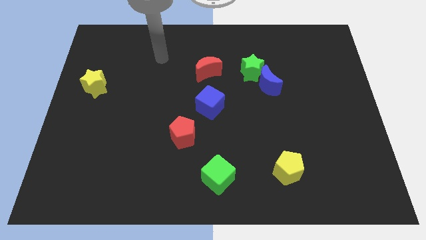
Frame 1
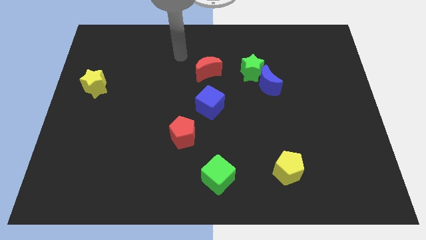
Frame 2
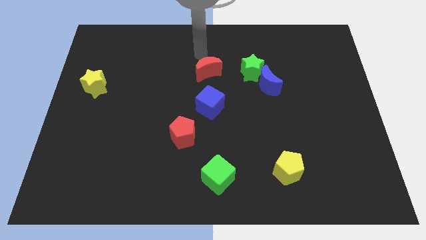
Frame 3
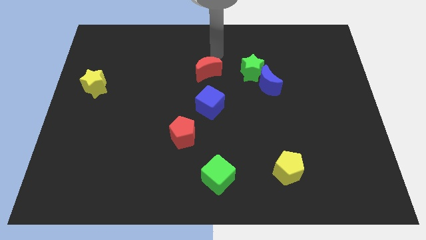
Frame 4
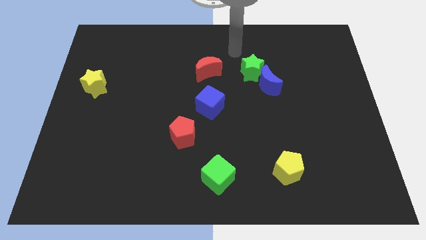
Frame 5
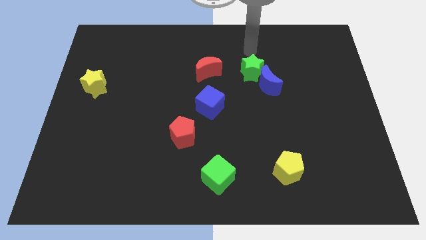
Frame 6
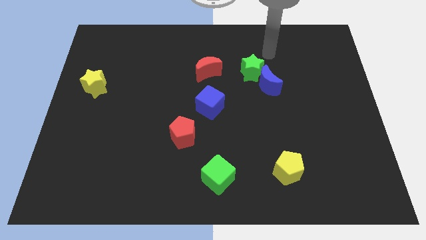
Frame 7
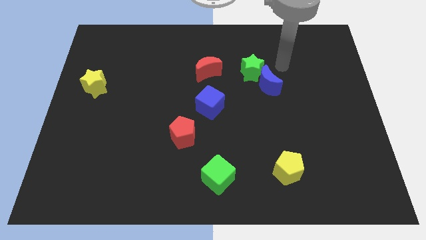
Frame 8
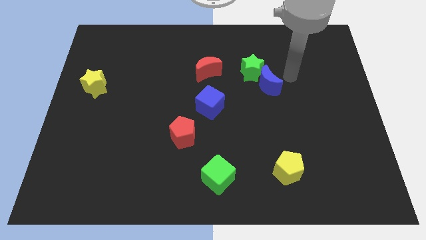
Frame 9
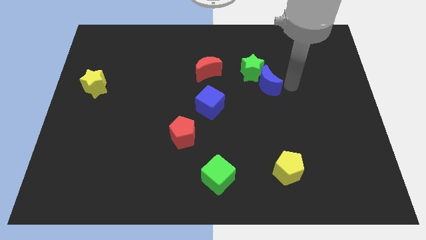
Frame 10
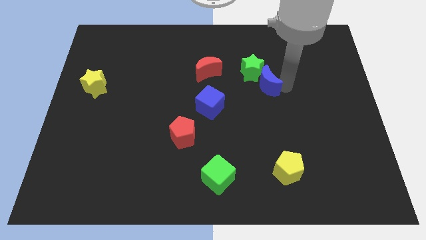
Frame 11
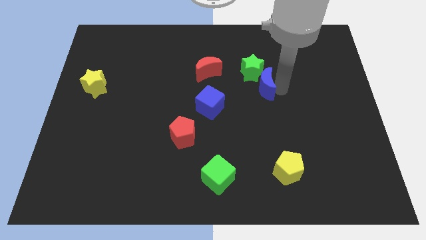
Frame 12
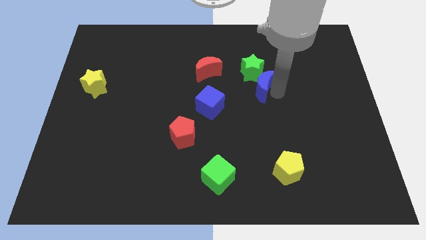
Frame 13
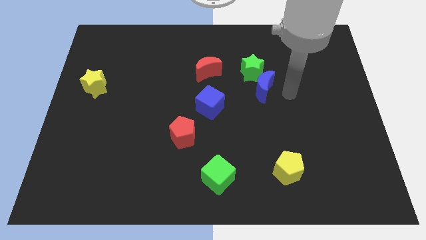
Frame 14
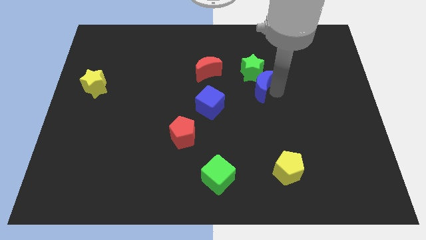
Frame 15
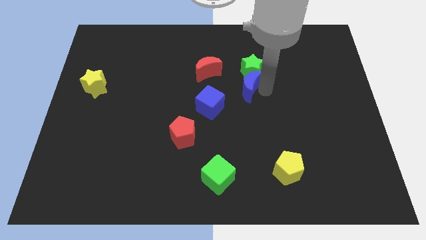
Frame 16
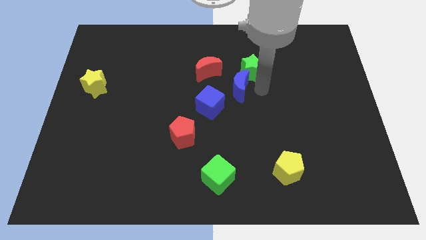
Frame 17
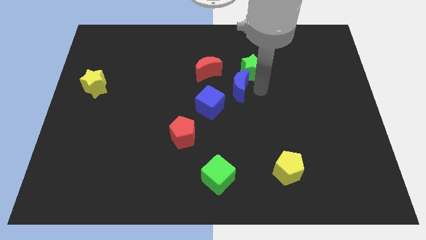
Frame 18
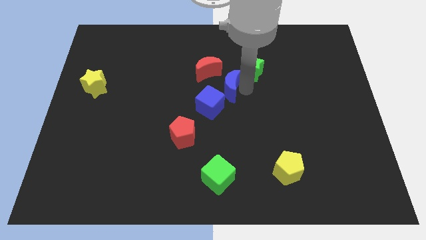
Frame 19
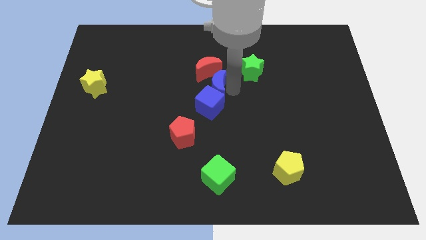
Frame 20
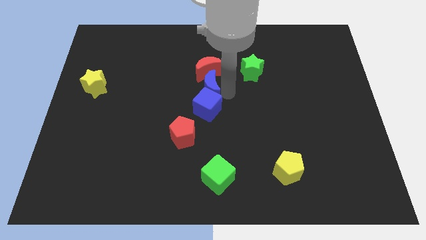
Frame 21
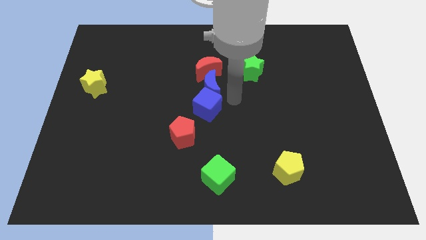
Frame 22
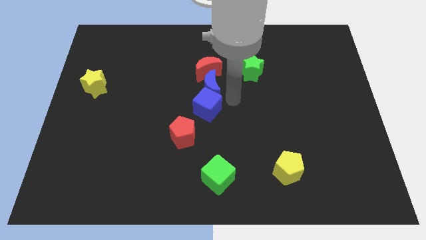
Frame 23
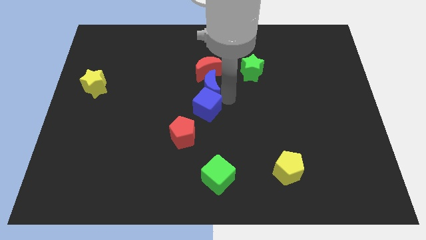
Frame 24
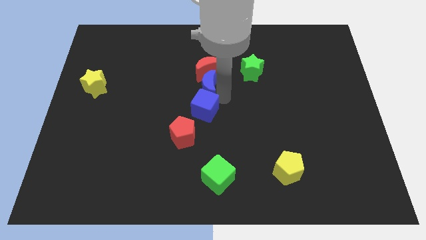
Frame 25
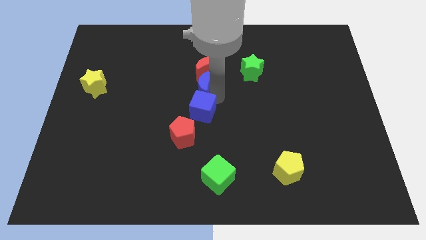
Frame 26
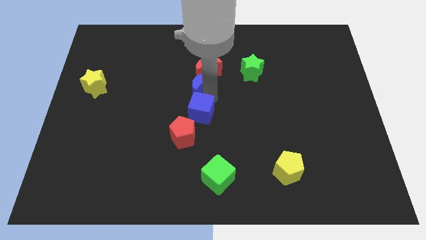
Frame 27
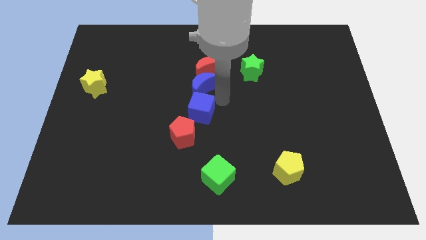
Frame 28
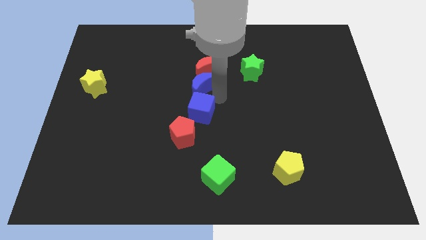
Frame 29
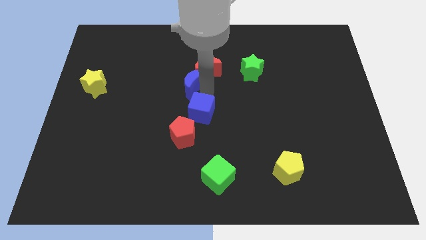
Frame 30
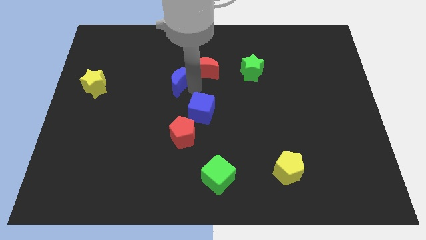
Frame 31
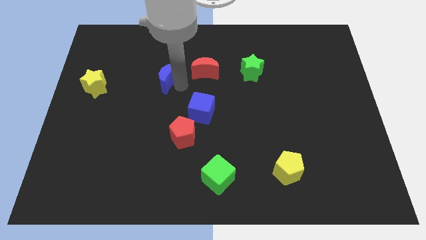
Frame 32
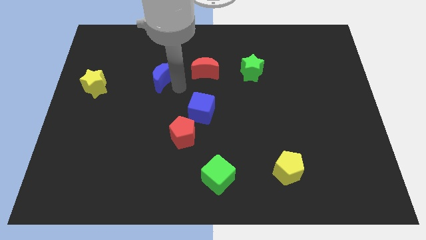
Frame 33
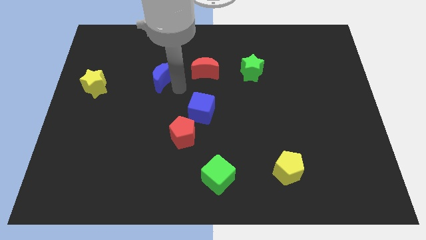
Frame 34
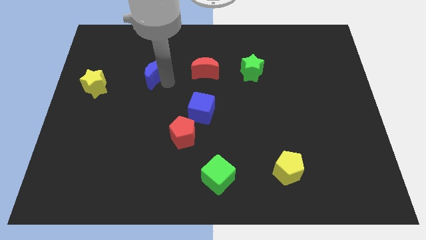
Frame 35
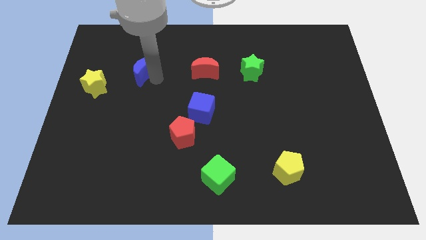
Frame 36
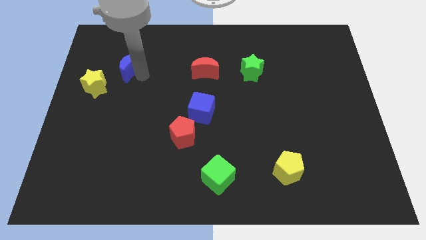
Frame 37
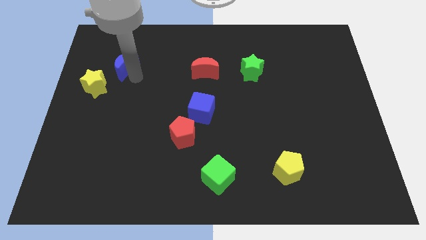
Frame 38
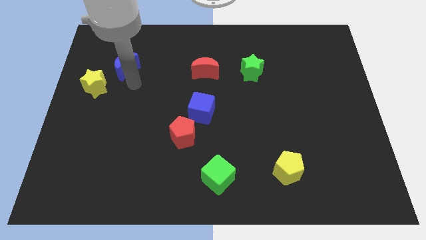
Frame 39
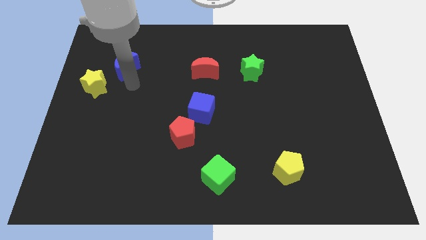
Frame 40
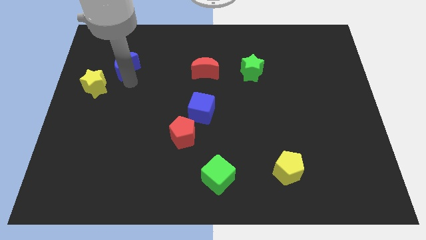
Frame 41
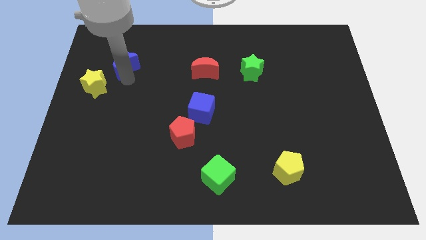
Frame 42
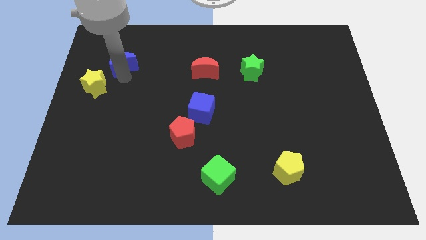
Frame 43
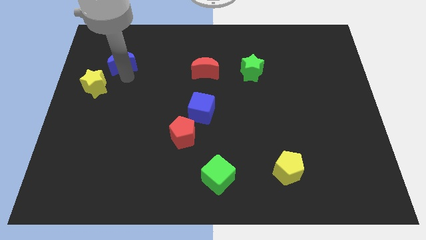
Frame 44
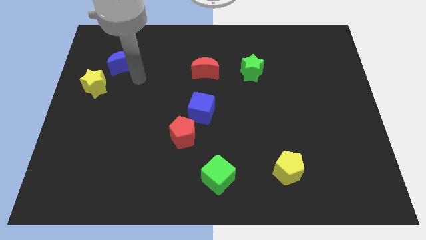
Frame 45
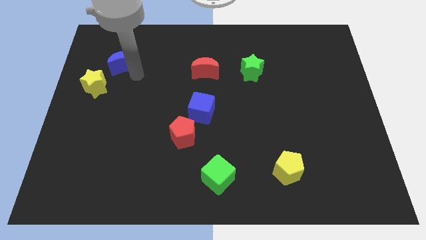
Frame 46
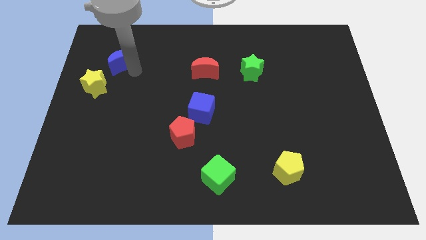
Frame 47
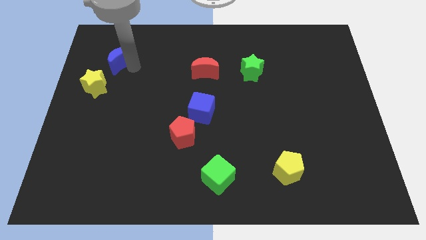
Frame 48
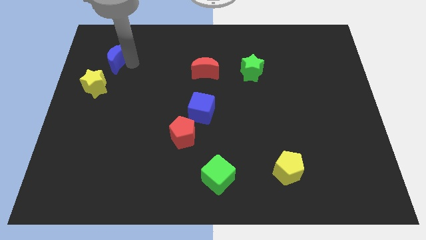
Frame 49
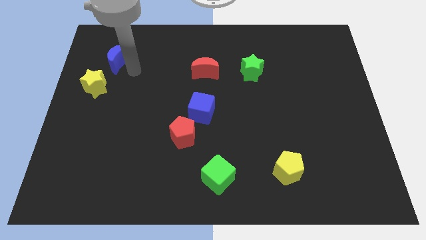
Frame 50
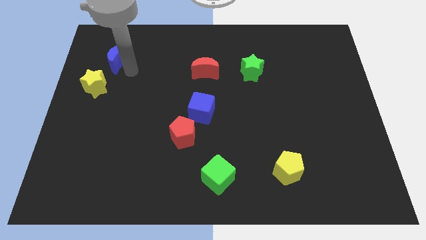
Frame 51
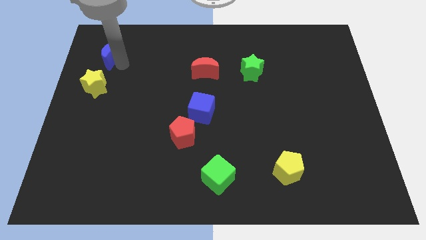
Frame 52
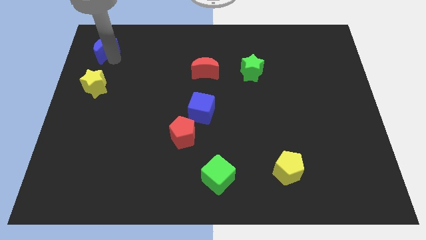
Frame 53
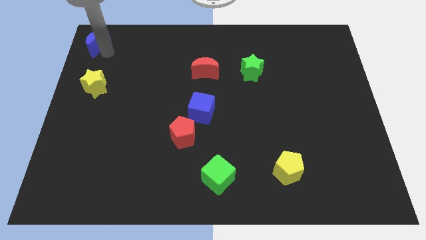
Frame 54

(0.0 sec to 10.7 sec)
slide the blue moon to the top left of the board
